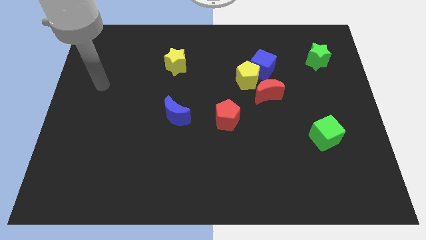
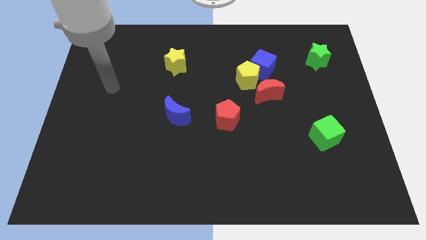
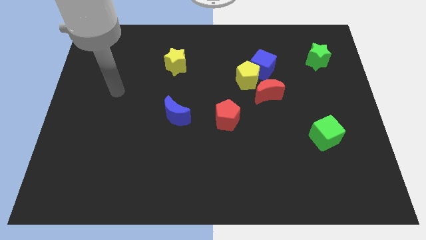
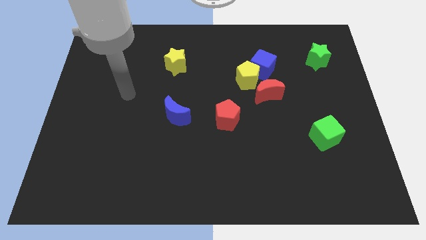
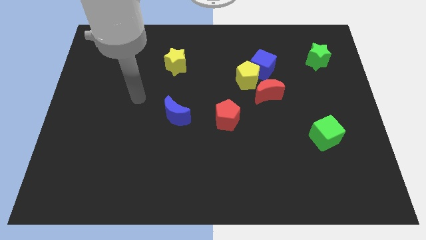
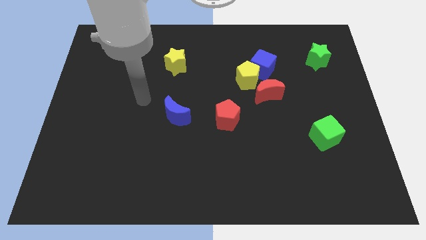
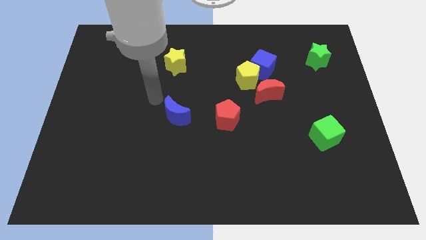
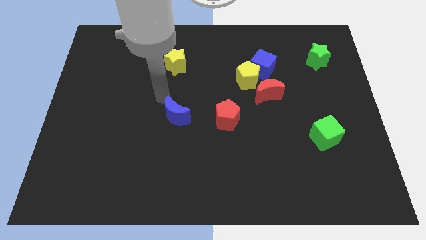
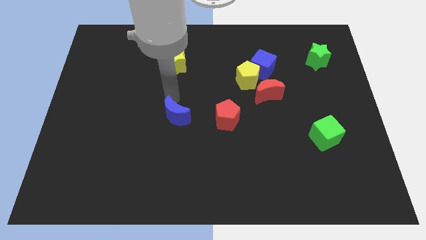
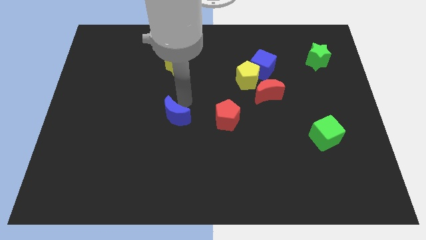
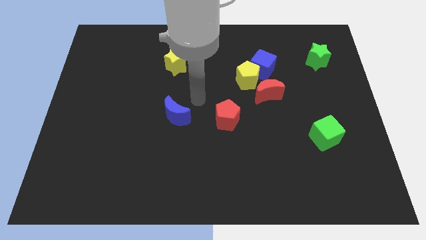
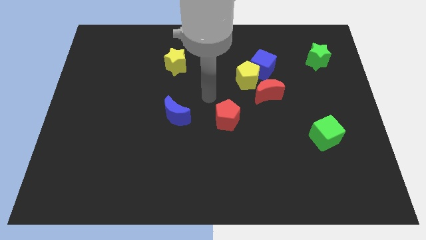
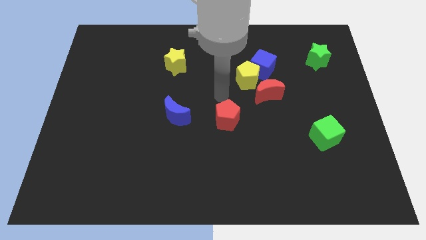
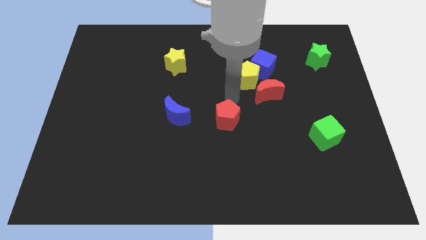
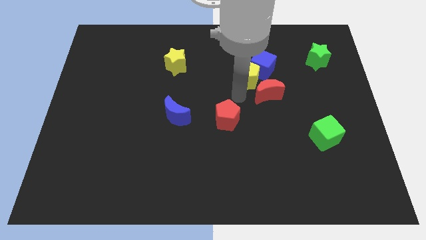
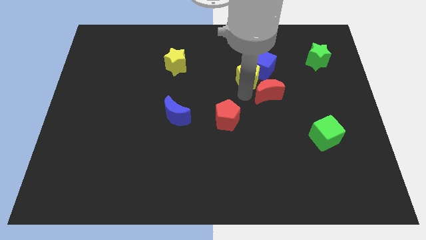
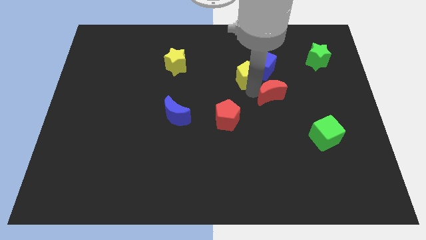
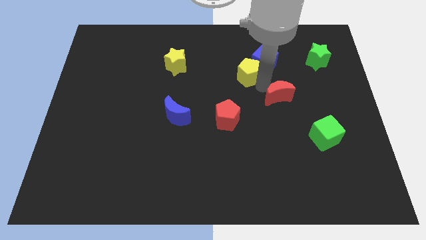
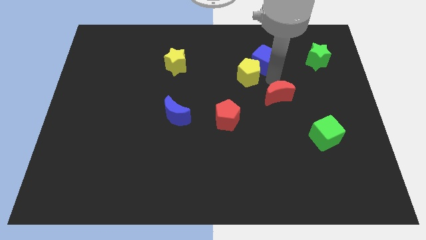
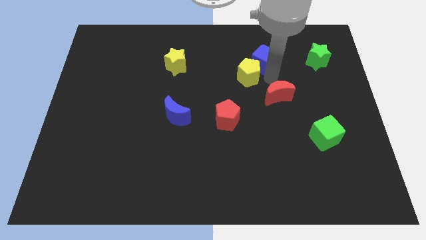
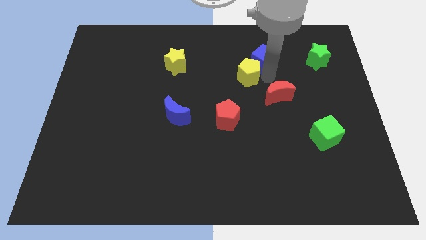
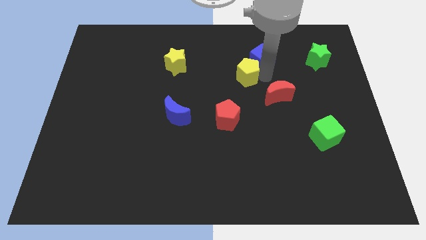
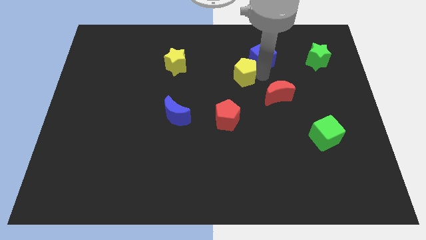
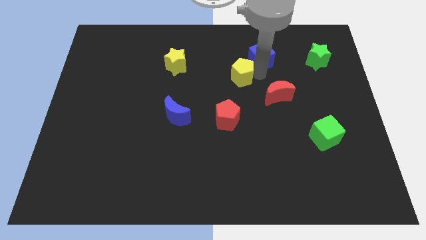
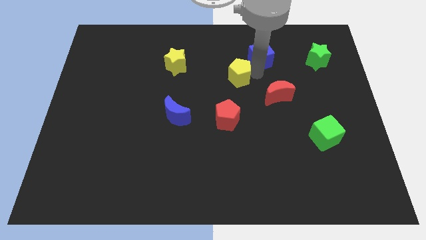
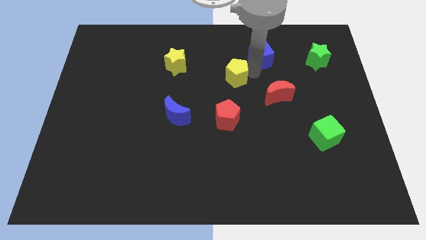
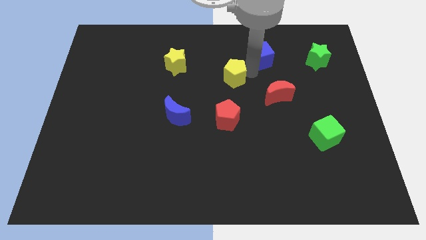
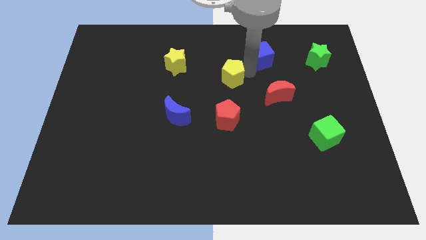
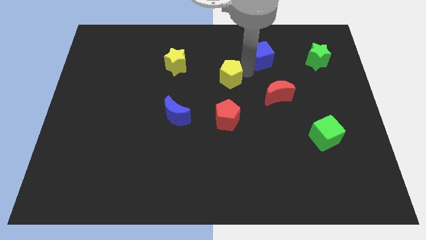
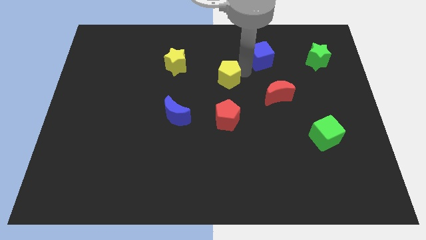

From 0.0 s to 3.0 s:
separate the yellow pentagon from the blue cube and red moon

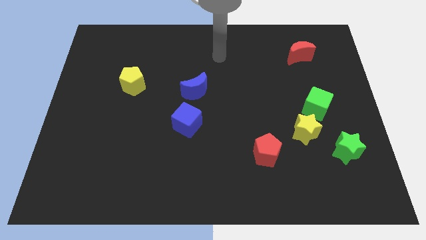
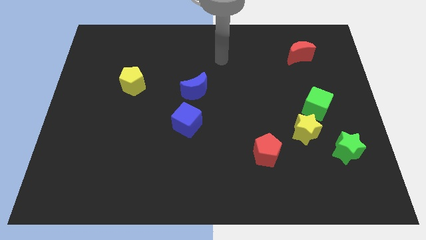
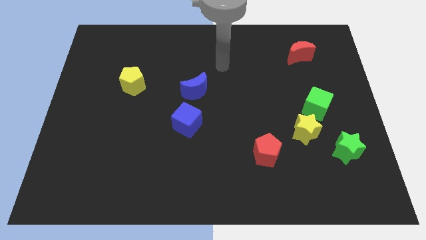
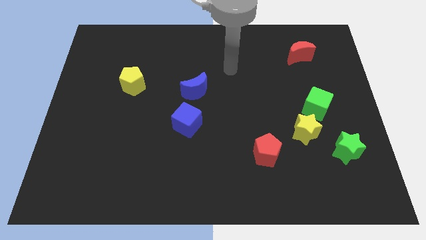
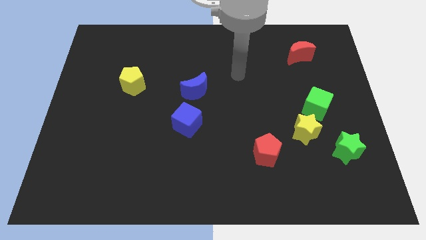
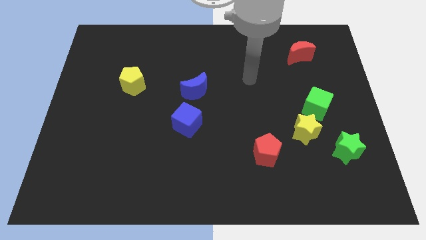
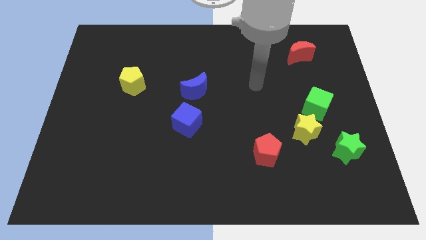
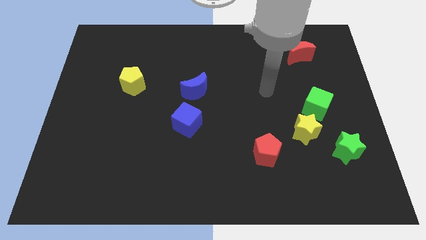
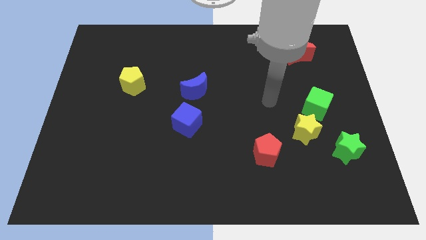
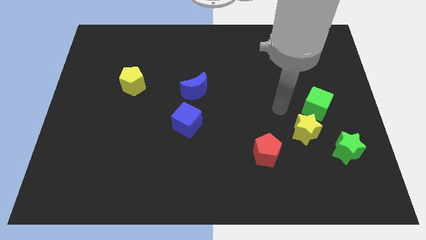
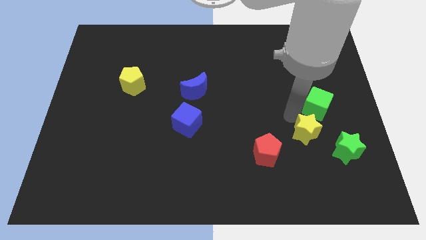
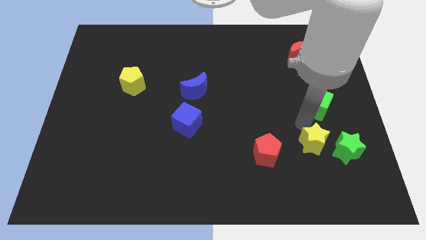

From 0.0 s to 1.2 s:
move the green cube away from the yellow star

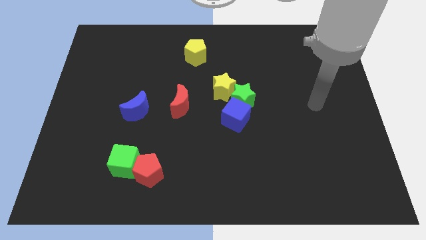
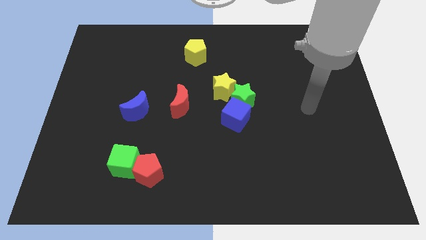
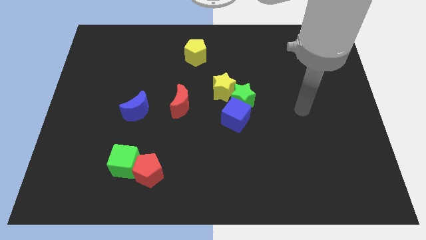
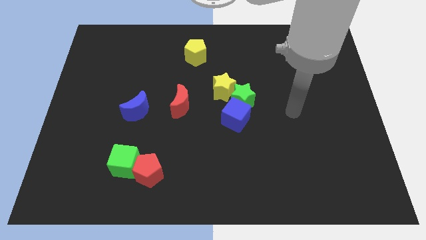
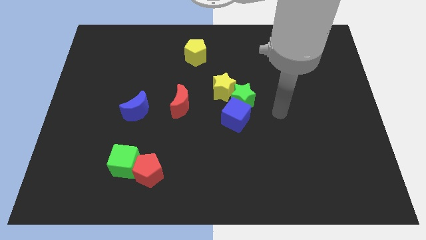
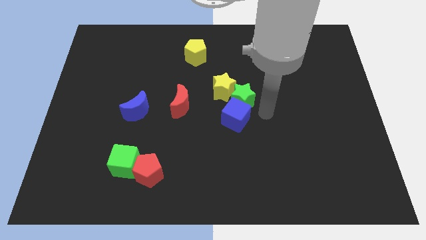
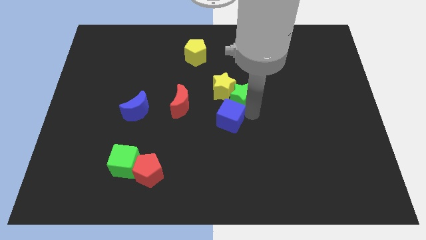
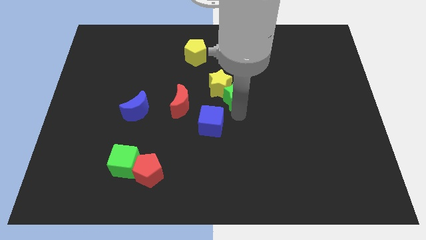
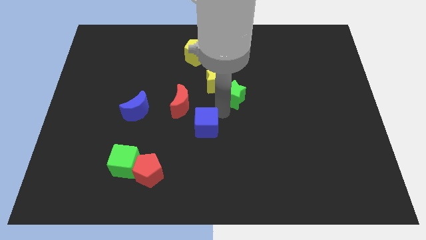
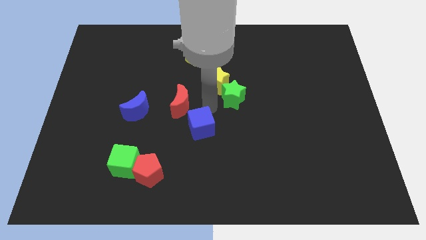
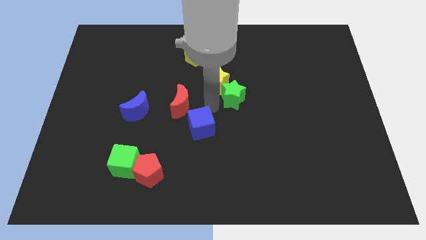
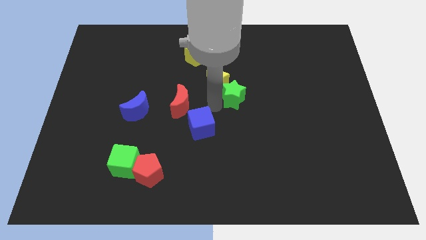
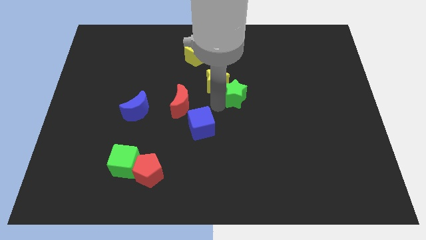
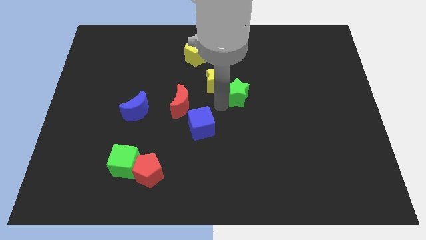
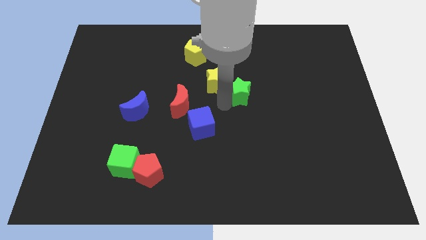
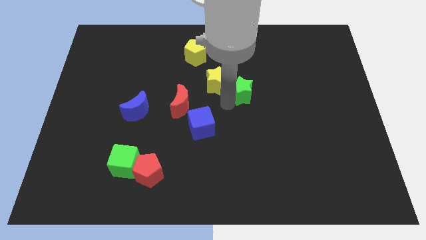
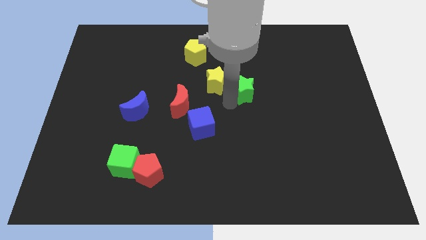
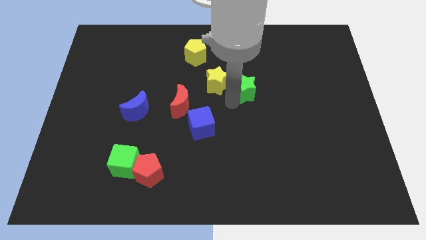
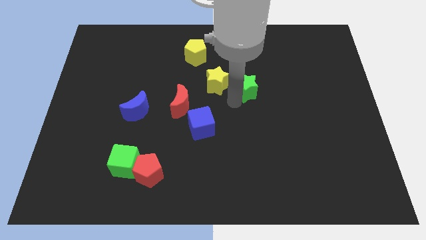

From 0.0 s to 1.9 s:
move the green star away from the yellow star and blue cube

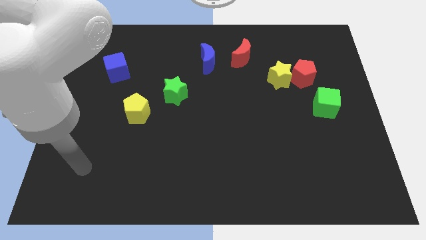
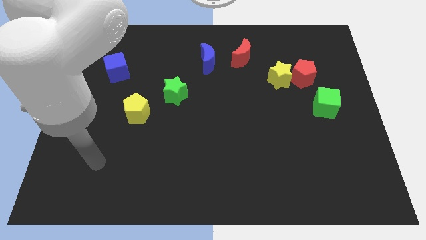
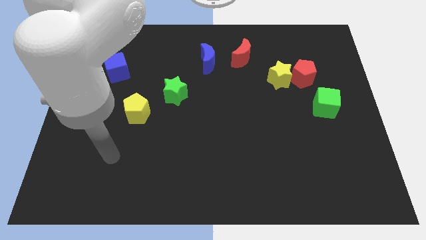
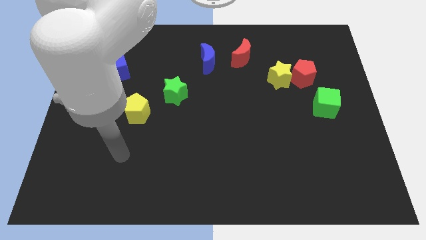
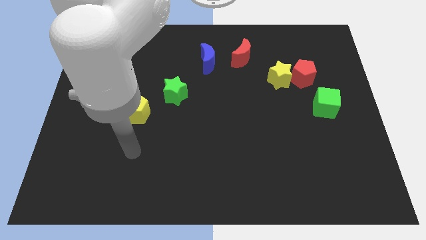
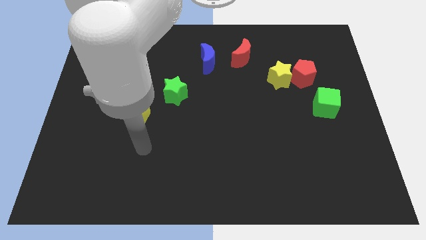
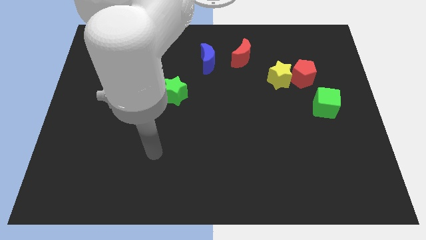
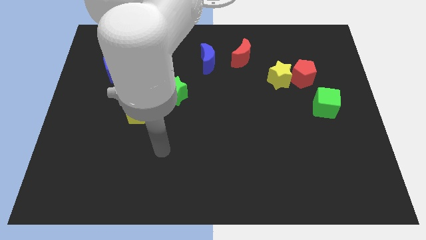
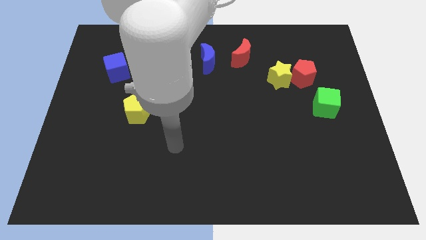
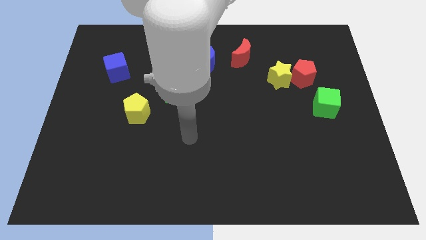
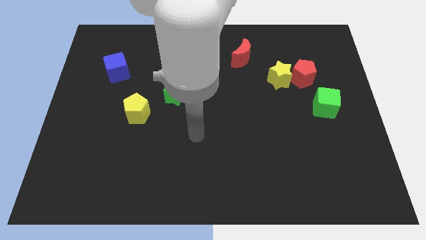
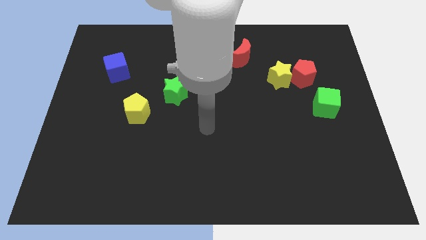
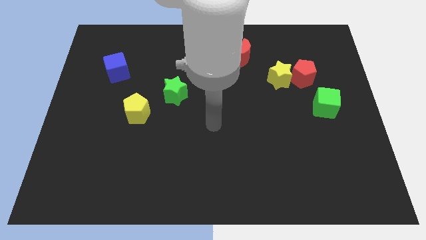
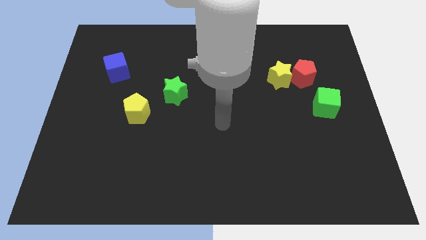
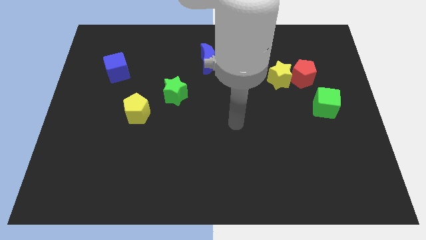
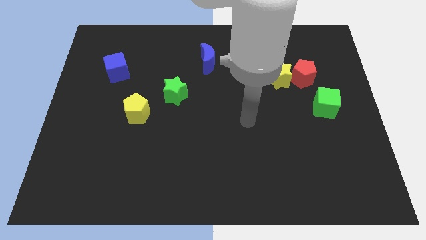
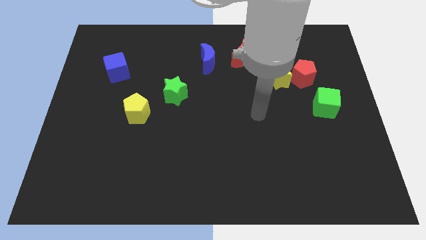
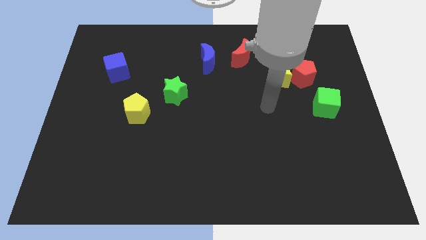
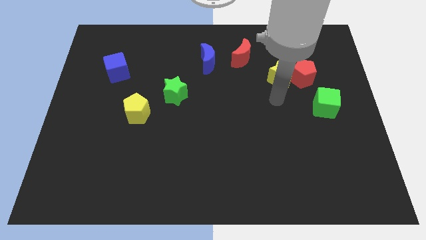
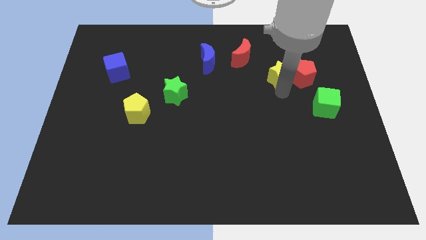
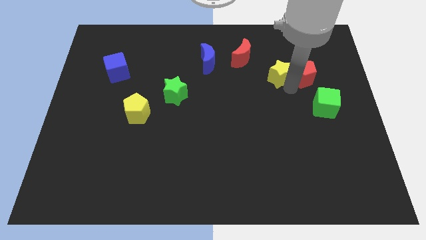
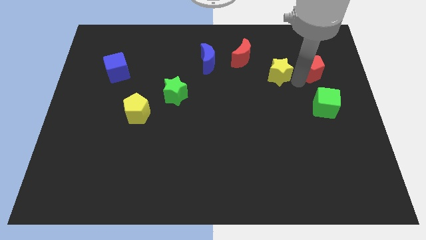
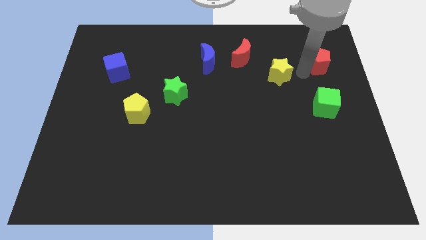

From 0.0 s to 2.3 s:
move the yellow star away from the red pentagon

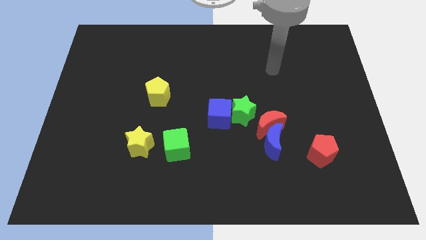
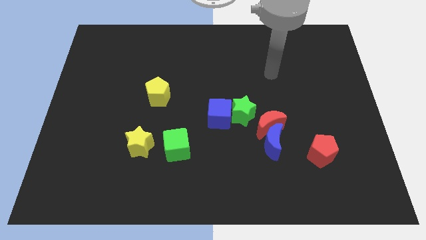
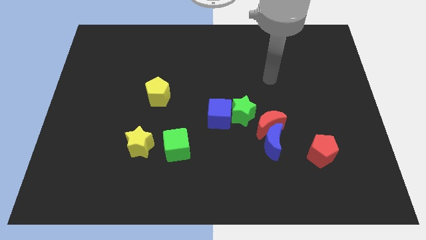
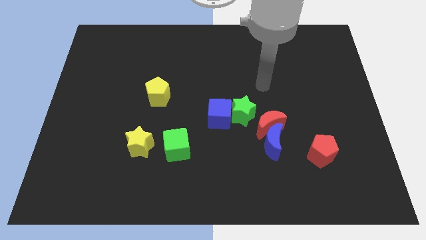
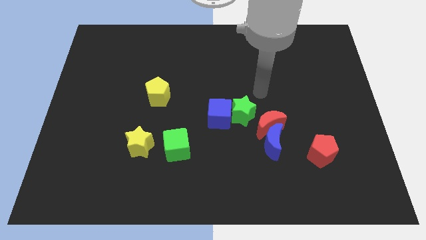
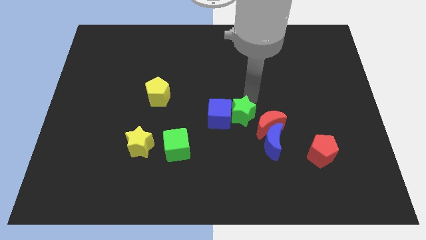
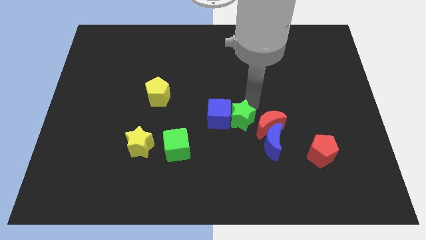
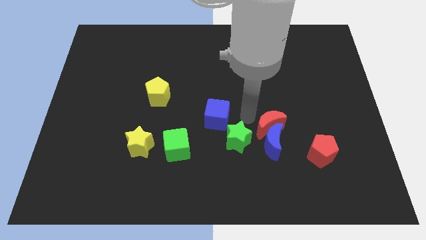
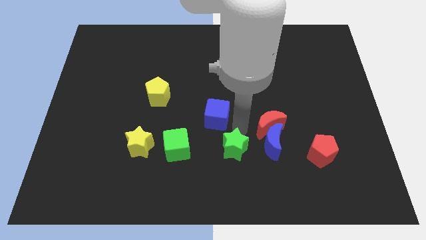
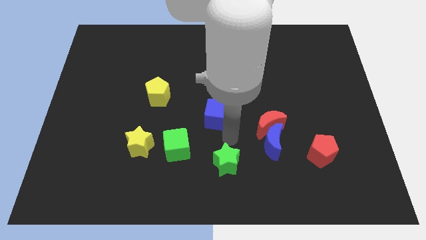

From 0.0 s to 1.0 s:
move the blue cube away from the green star
